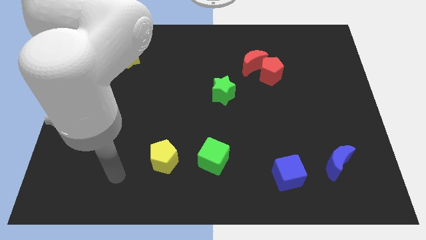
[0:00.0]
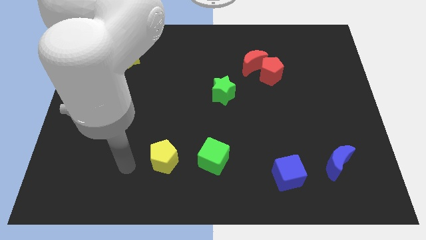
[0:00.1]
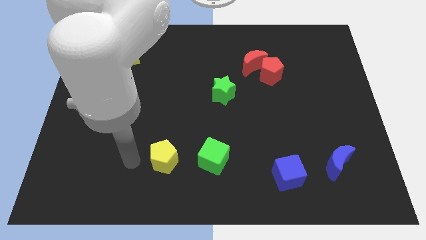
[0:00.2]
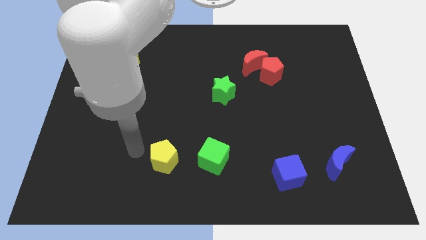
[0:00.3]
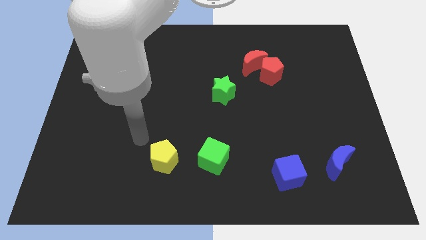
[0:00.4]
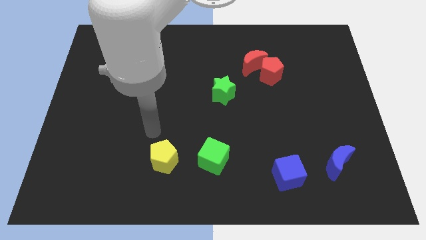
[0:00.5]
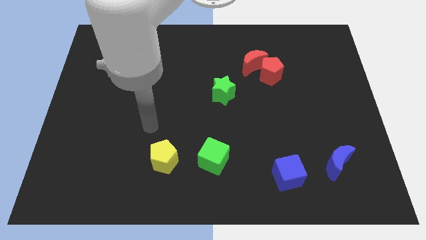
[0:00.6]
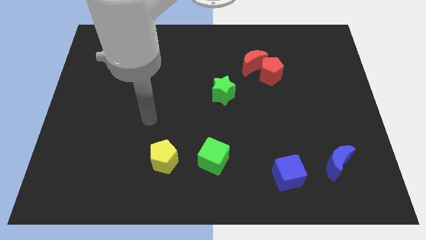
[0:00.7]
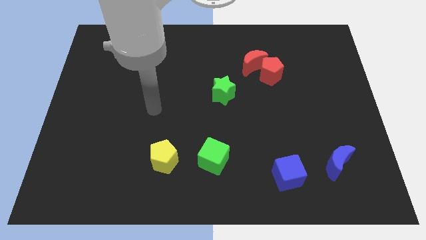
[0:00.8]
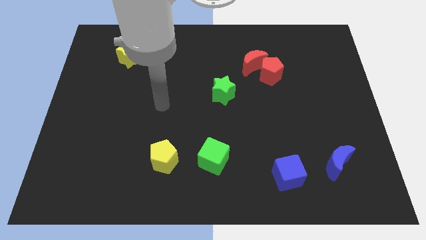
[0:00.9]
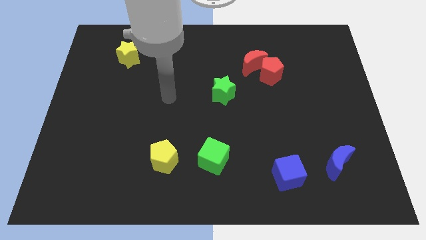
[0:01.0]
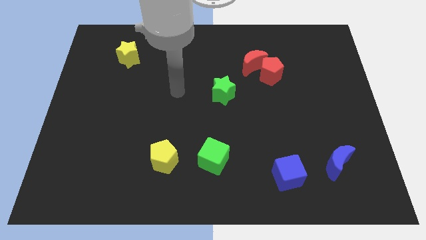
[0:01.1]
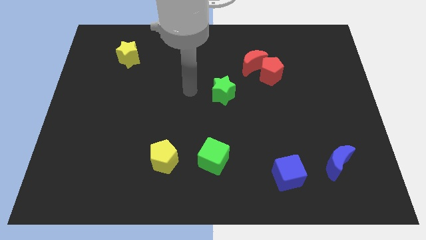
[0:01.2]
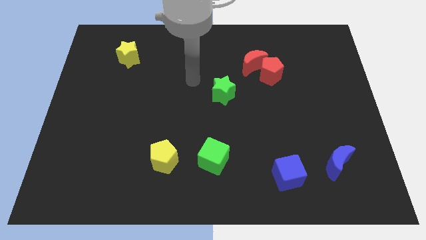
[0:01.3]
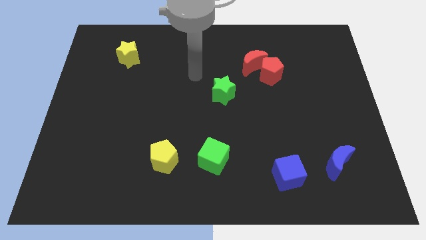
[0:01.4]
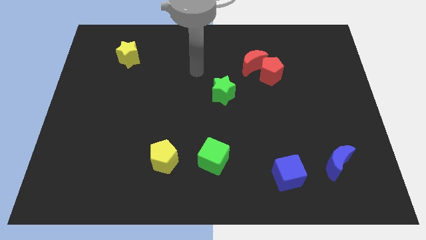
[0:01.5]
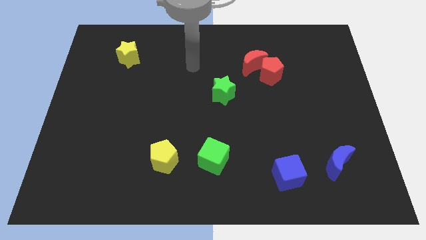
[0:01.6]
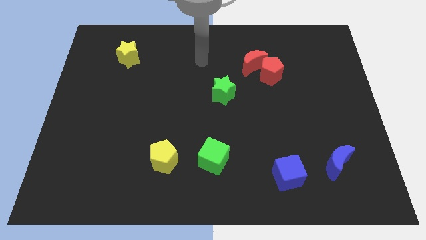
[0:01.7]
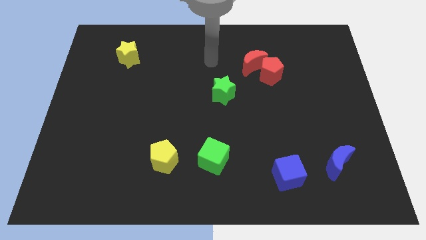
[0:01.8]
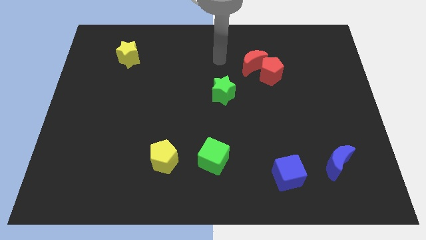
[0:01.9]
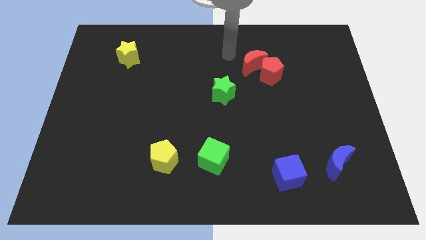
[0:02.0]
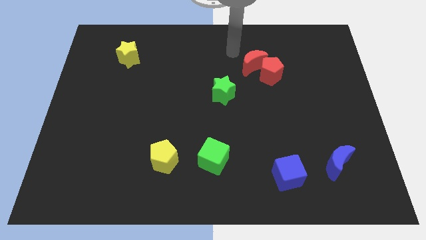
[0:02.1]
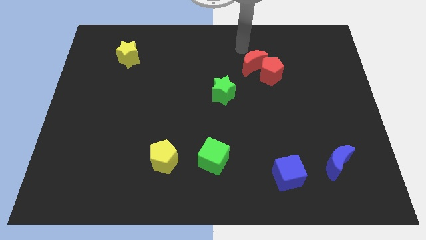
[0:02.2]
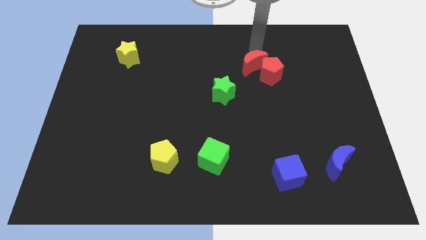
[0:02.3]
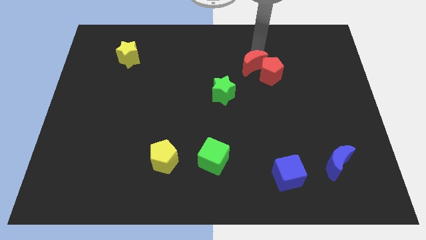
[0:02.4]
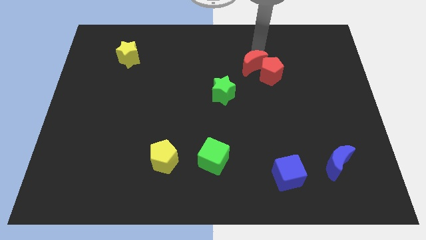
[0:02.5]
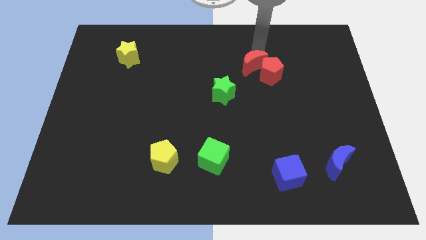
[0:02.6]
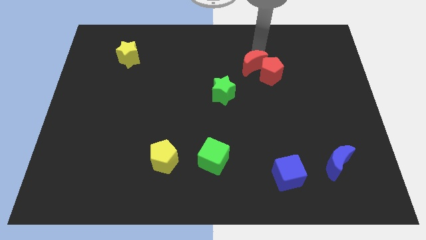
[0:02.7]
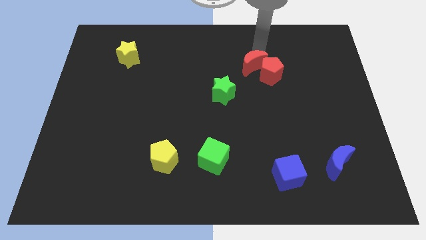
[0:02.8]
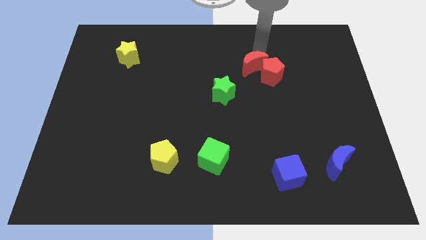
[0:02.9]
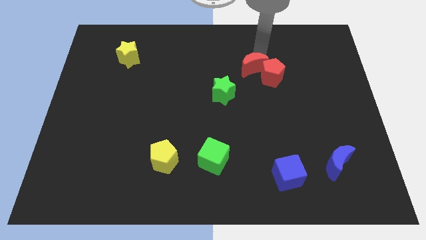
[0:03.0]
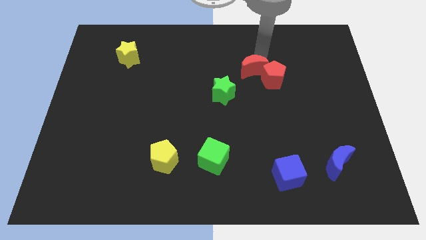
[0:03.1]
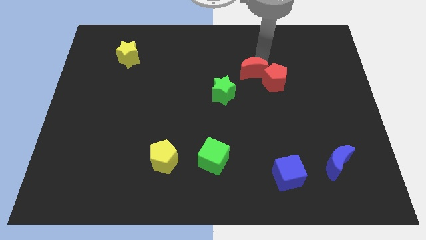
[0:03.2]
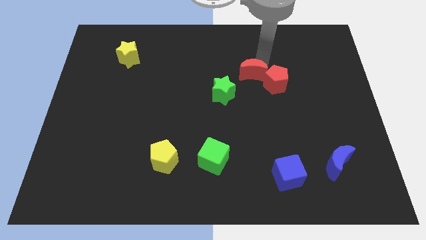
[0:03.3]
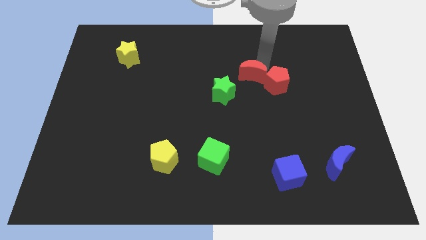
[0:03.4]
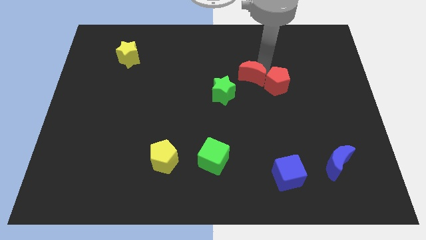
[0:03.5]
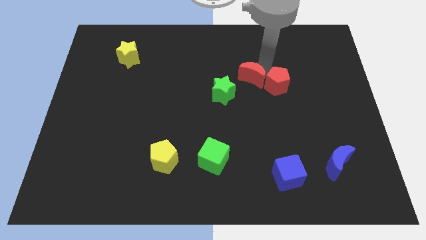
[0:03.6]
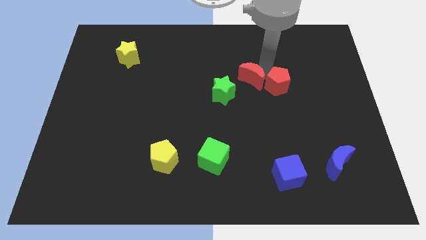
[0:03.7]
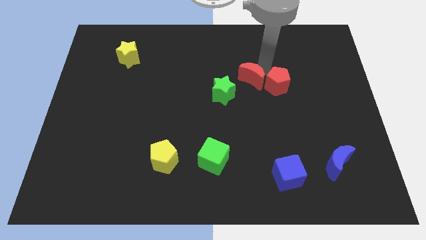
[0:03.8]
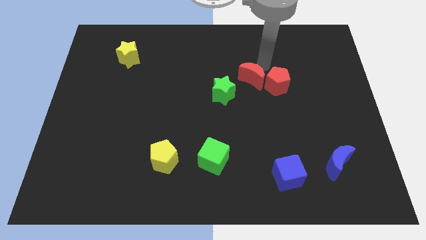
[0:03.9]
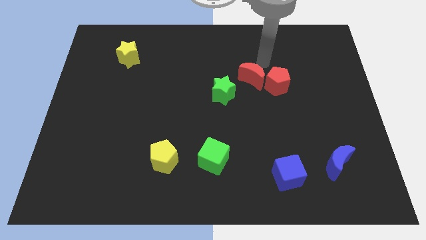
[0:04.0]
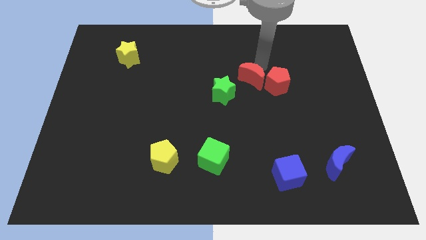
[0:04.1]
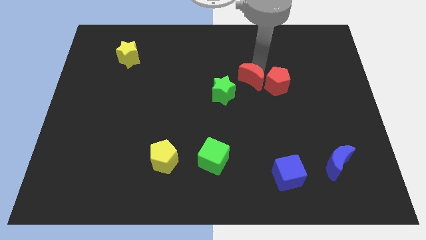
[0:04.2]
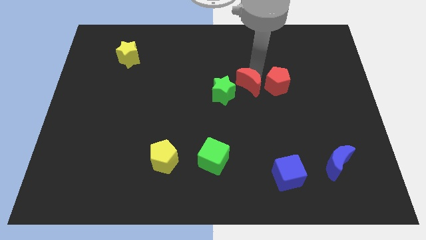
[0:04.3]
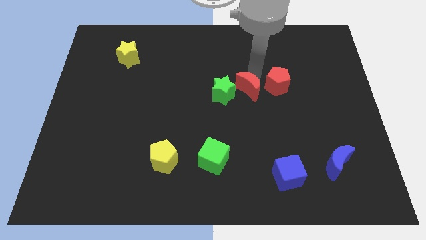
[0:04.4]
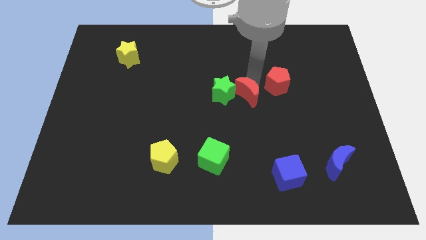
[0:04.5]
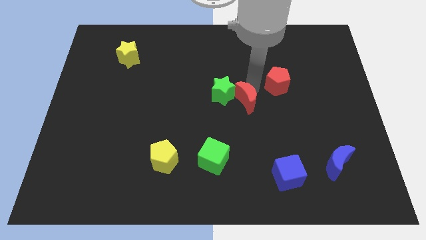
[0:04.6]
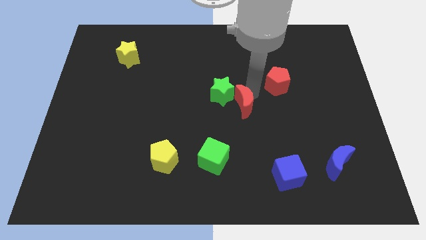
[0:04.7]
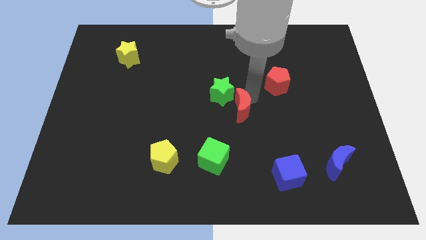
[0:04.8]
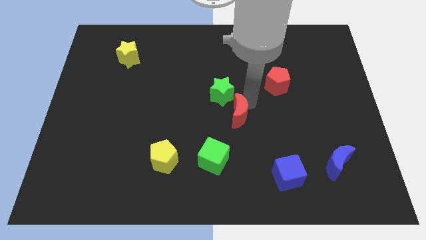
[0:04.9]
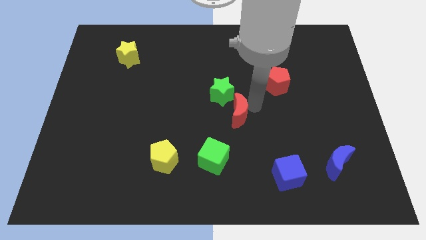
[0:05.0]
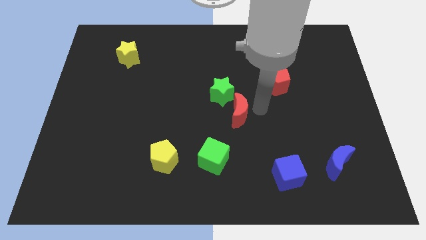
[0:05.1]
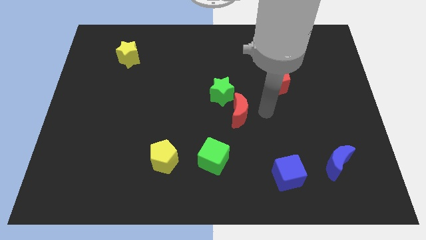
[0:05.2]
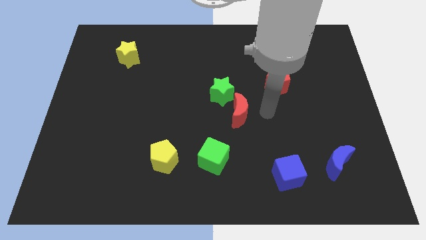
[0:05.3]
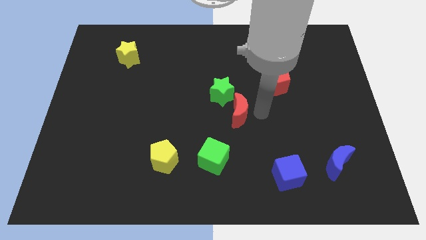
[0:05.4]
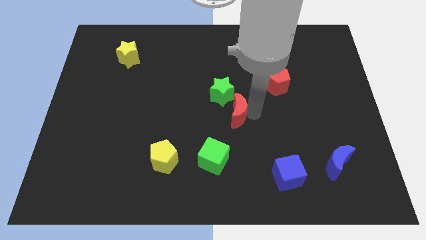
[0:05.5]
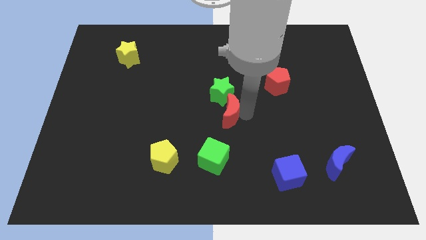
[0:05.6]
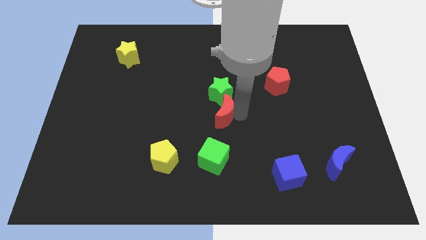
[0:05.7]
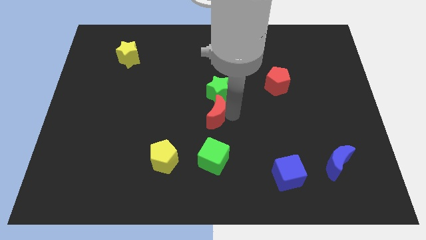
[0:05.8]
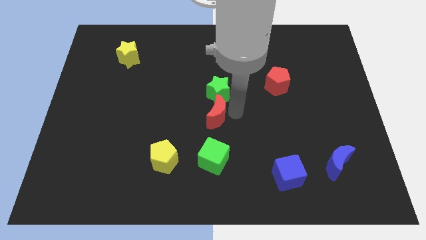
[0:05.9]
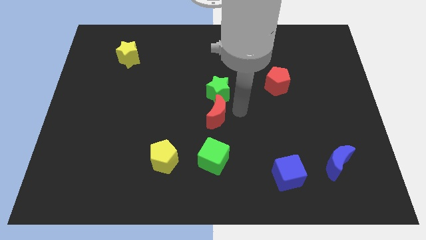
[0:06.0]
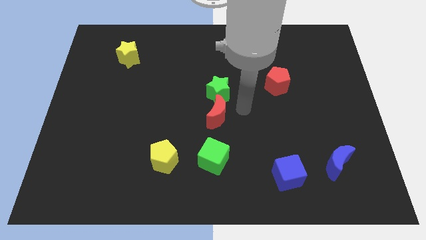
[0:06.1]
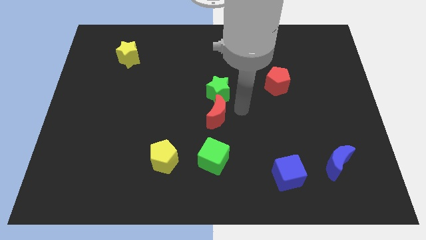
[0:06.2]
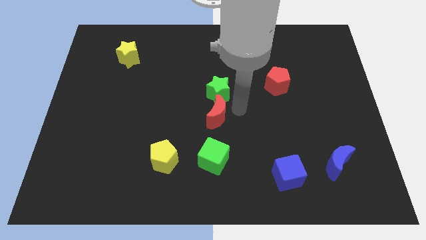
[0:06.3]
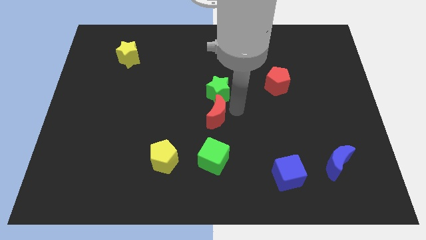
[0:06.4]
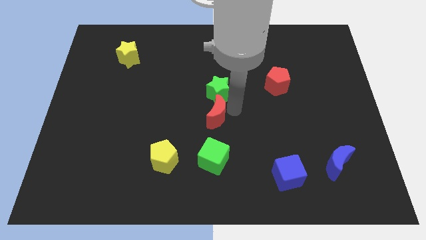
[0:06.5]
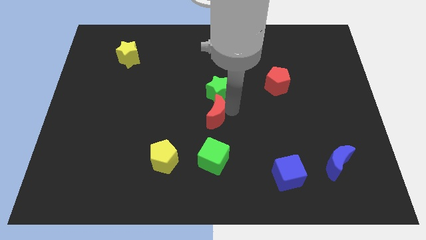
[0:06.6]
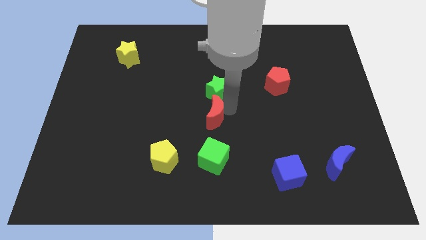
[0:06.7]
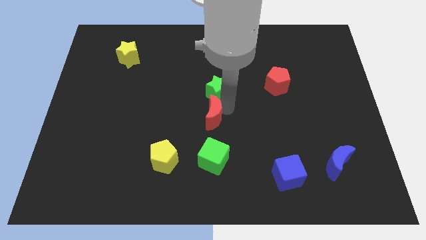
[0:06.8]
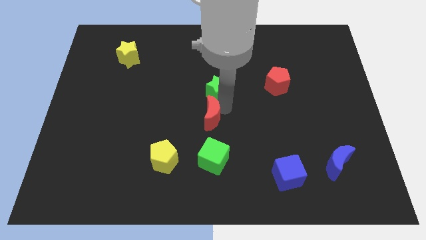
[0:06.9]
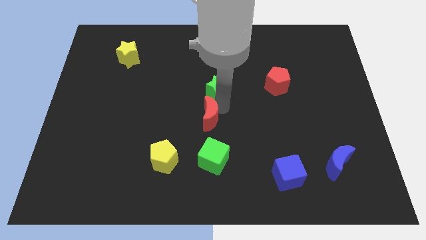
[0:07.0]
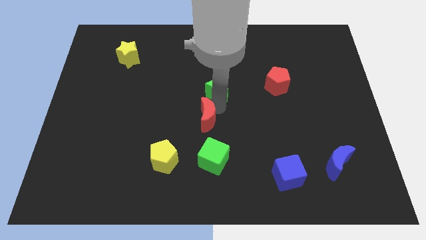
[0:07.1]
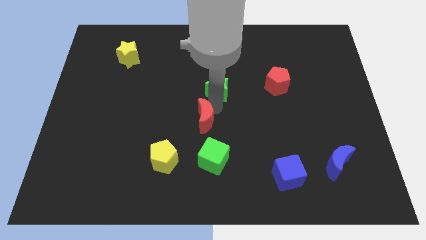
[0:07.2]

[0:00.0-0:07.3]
slide the red moon downwards and to the left diagonally

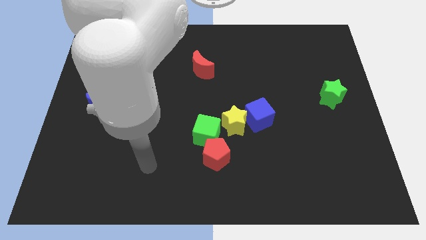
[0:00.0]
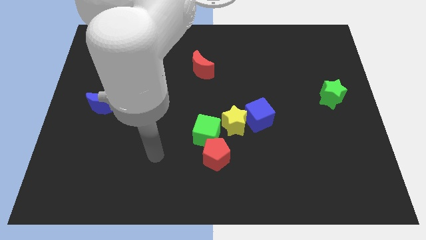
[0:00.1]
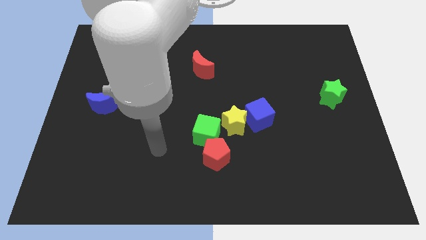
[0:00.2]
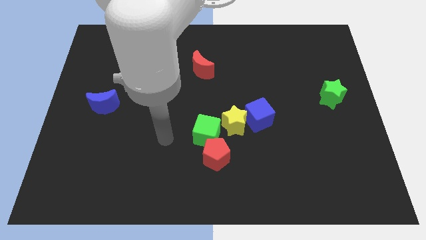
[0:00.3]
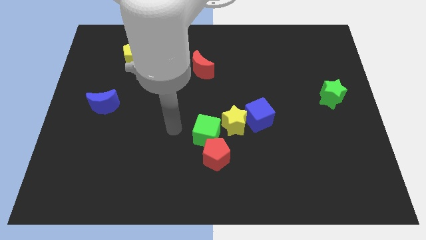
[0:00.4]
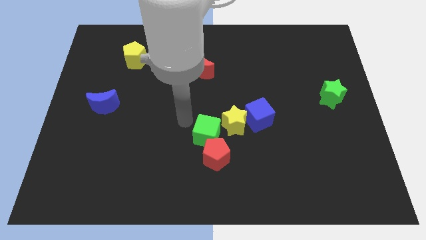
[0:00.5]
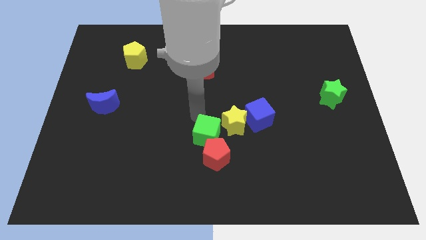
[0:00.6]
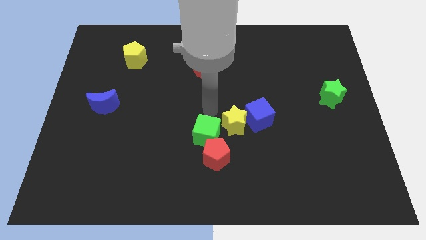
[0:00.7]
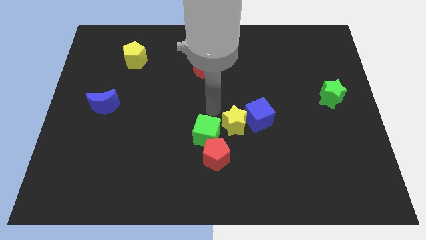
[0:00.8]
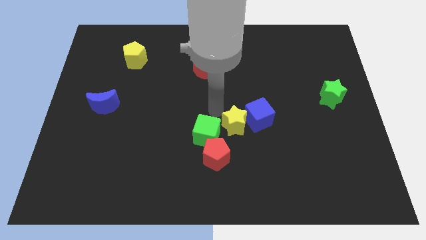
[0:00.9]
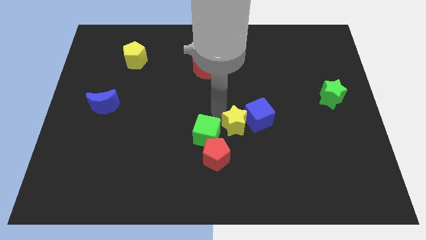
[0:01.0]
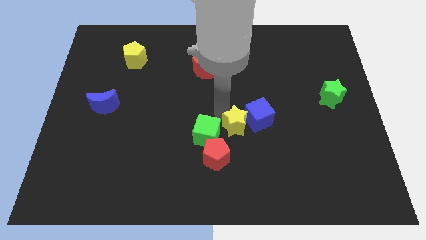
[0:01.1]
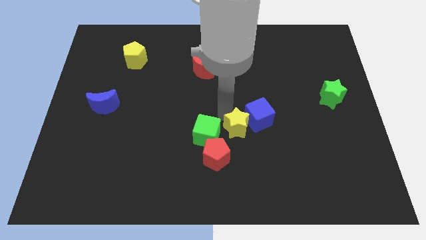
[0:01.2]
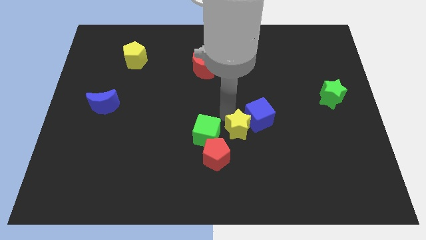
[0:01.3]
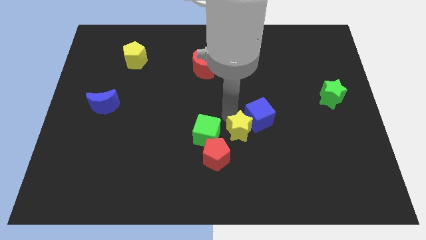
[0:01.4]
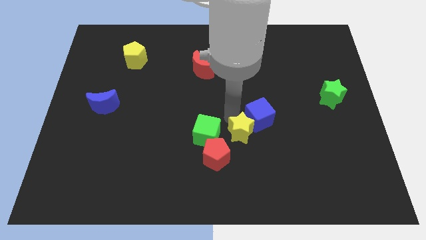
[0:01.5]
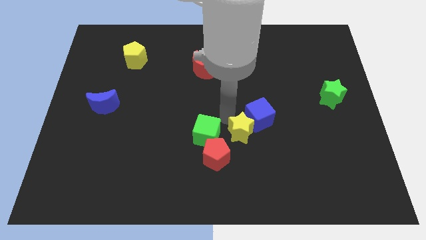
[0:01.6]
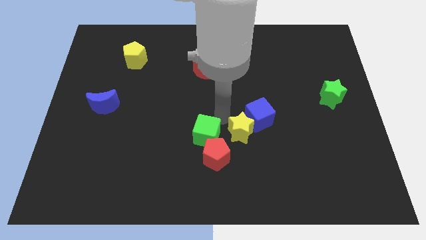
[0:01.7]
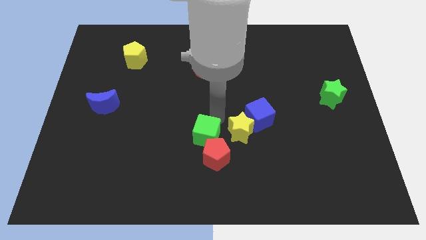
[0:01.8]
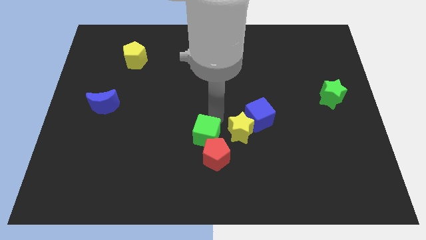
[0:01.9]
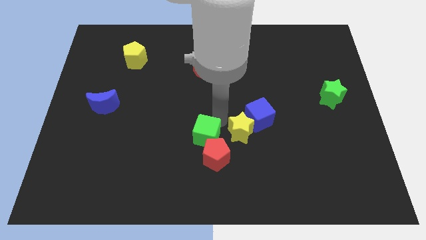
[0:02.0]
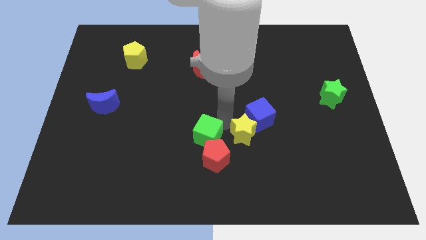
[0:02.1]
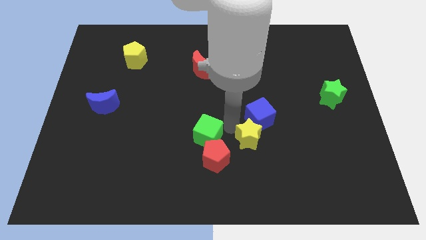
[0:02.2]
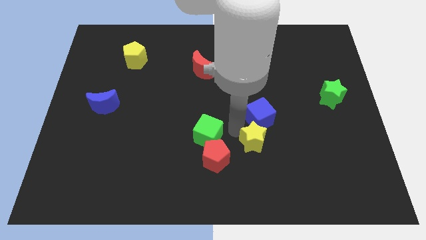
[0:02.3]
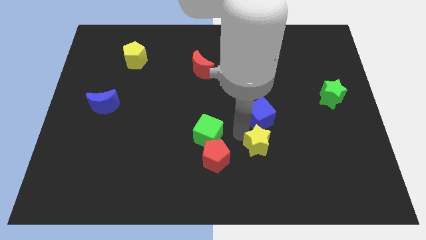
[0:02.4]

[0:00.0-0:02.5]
slightly slide the yellow star down and then right
